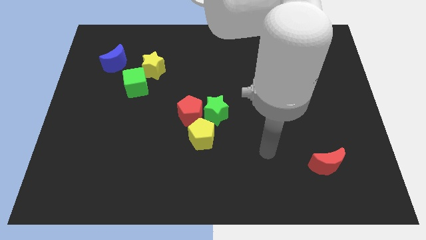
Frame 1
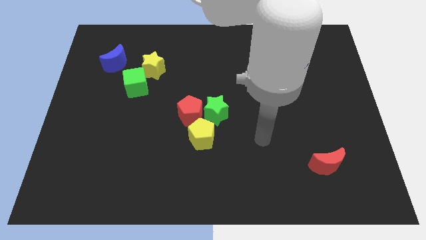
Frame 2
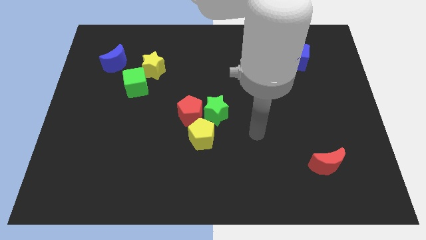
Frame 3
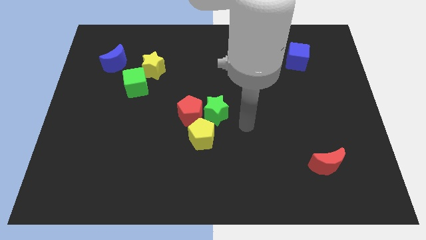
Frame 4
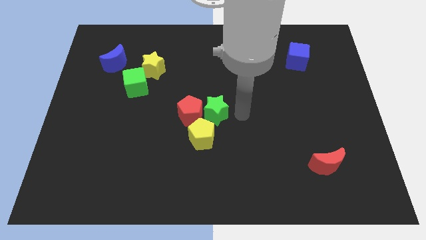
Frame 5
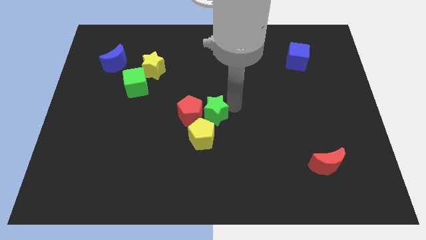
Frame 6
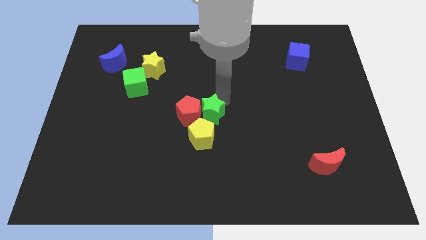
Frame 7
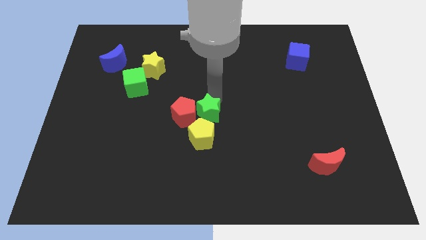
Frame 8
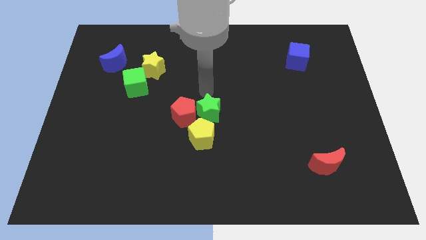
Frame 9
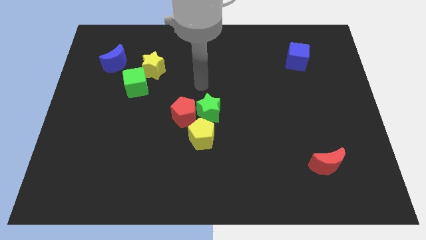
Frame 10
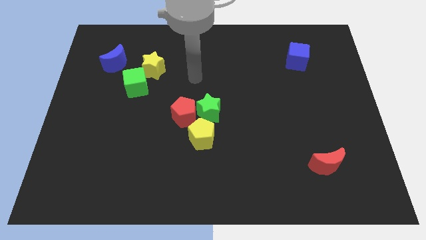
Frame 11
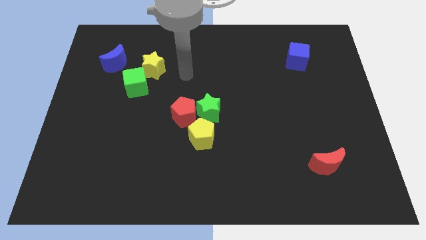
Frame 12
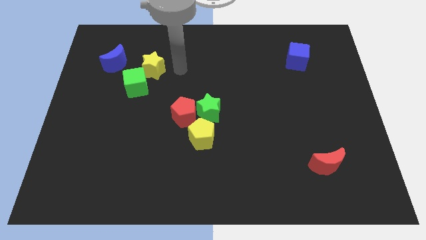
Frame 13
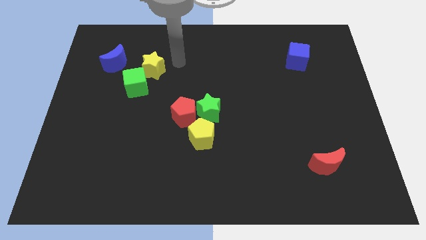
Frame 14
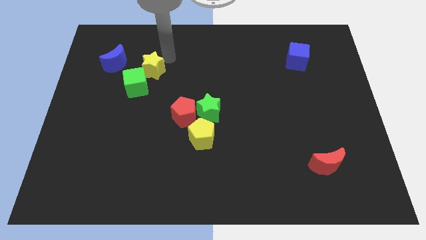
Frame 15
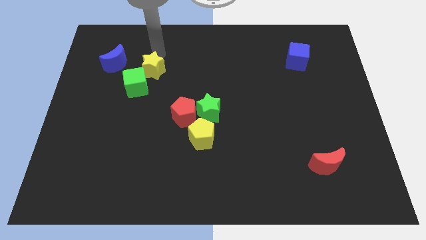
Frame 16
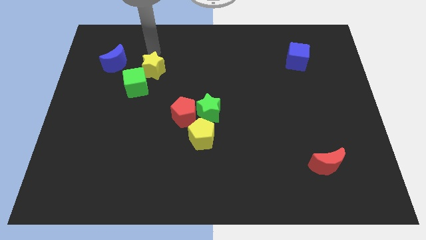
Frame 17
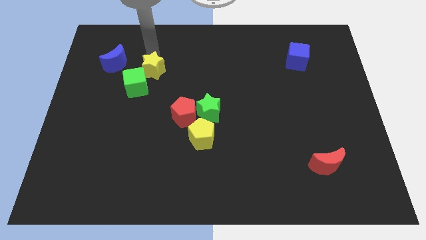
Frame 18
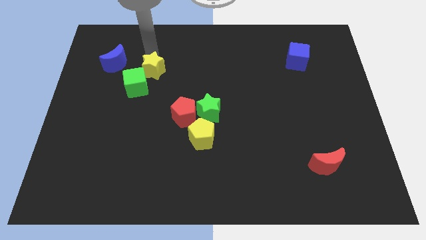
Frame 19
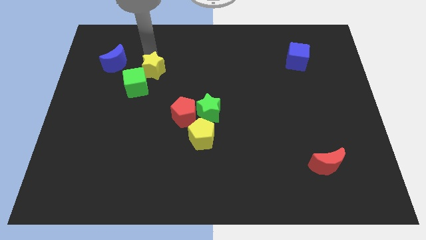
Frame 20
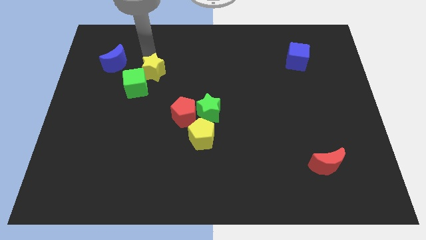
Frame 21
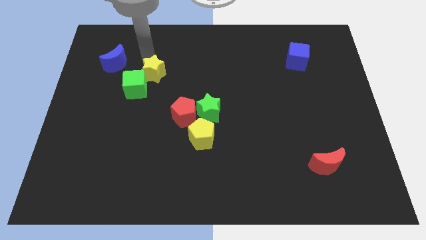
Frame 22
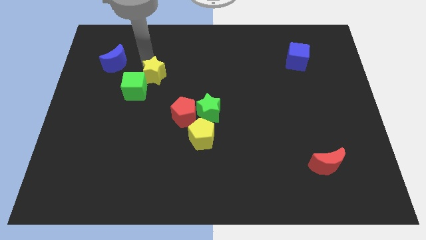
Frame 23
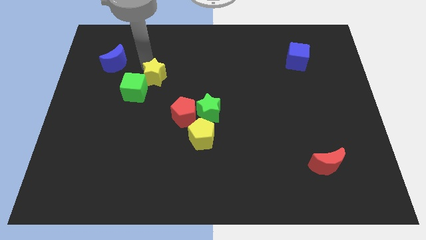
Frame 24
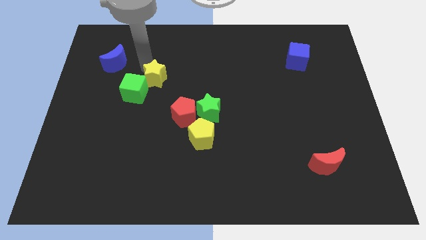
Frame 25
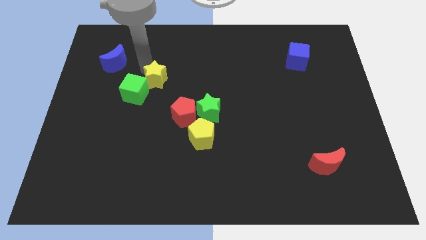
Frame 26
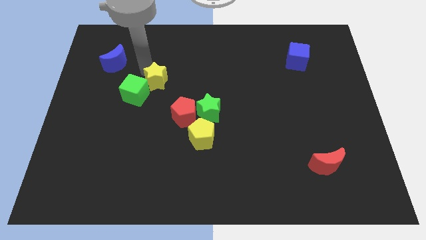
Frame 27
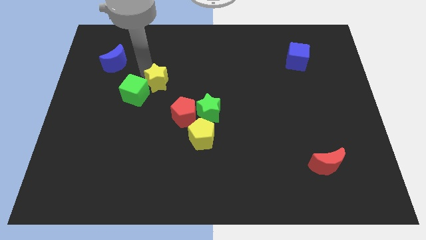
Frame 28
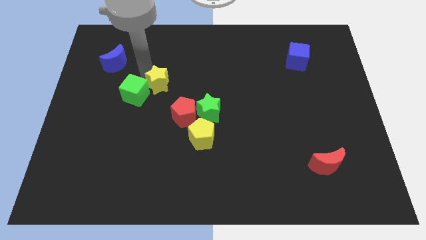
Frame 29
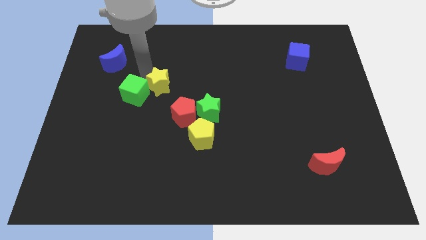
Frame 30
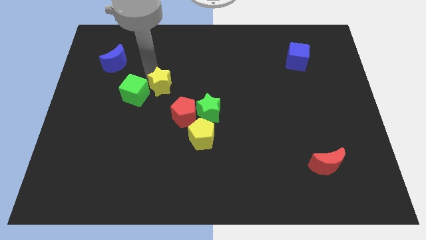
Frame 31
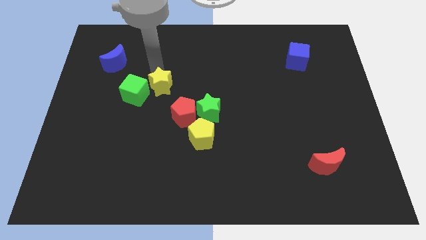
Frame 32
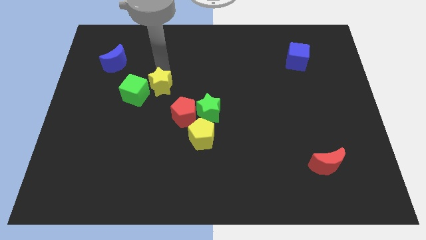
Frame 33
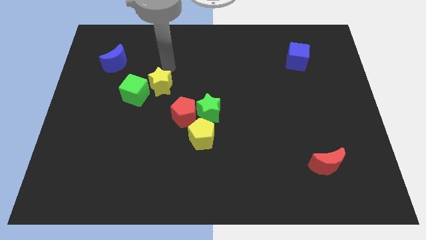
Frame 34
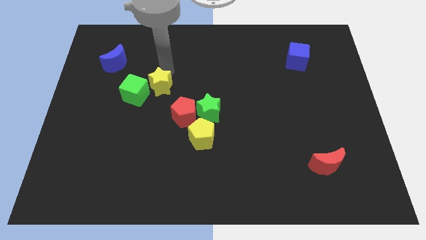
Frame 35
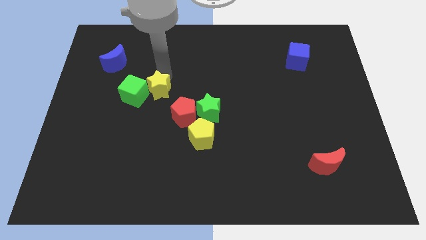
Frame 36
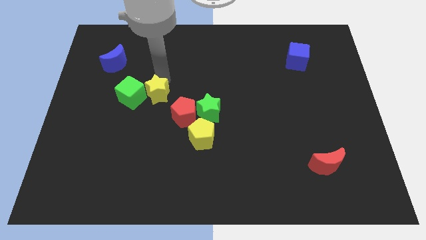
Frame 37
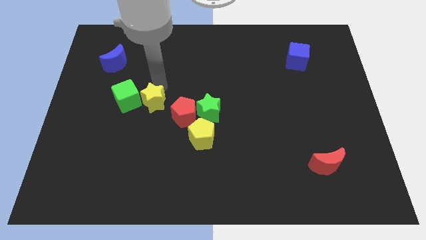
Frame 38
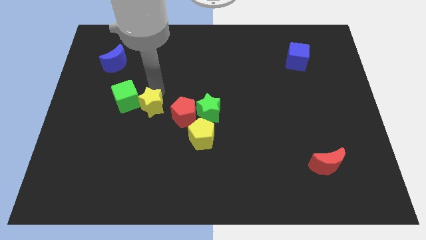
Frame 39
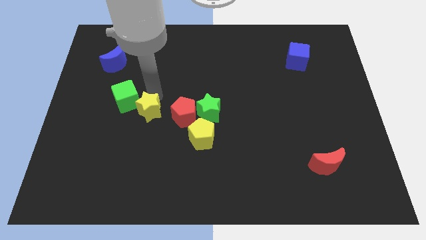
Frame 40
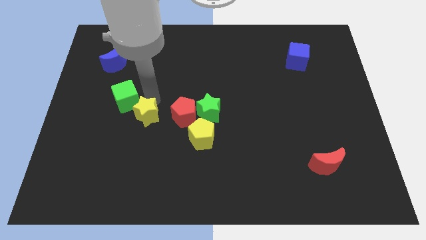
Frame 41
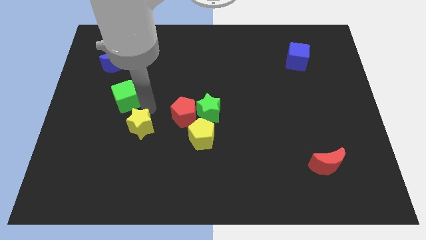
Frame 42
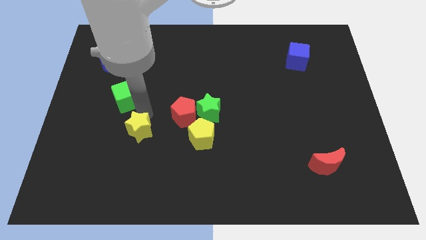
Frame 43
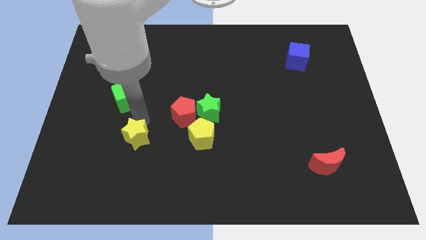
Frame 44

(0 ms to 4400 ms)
slide the yellow star down

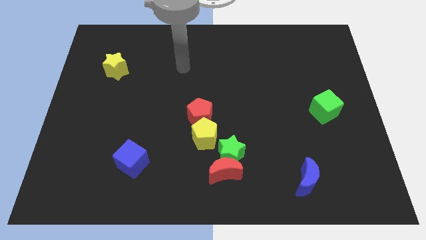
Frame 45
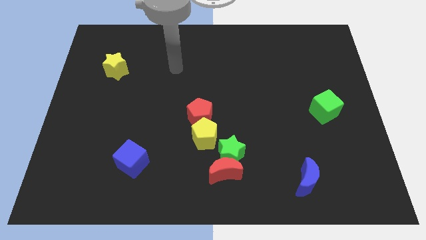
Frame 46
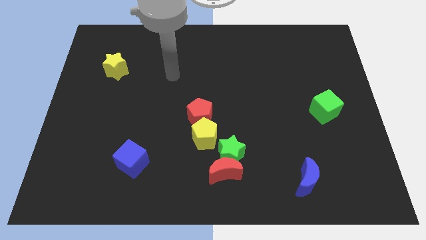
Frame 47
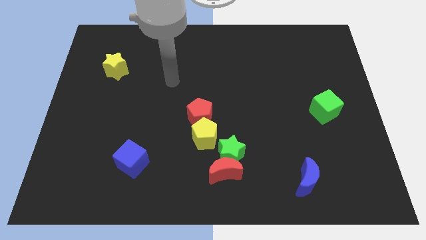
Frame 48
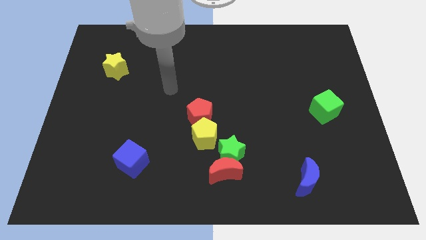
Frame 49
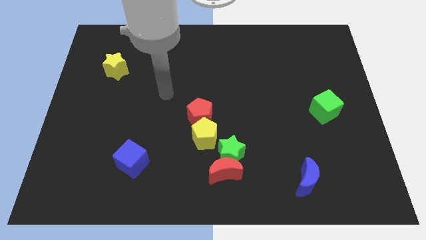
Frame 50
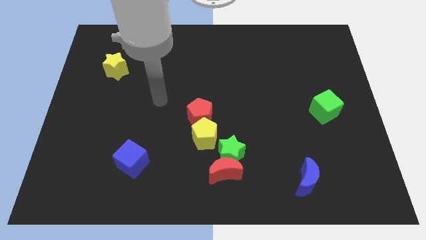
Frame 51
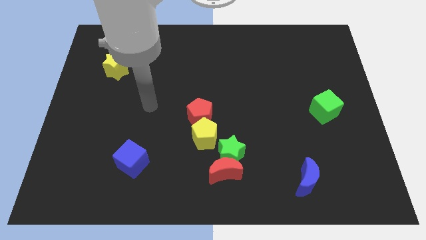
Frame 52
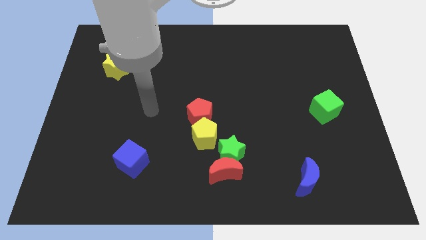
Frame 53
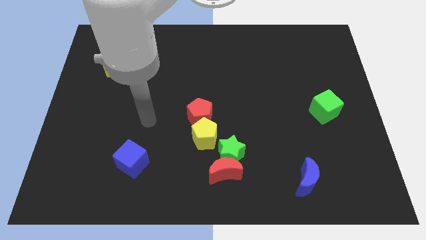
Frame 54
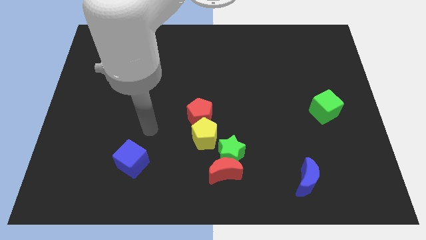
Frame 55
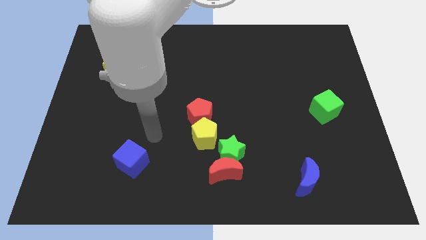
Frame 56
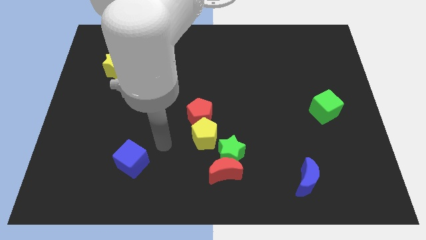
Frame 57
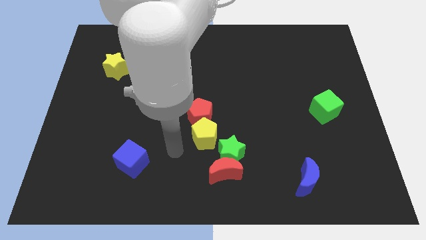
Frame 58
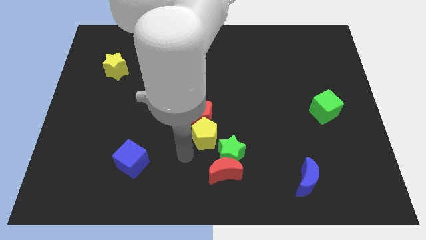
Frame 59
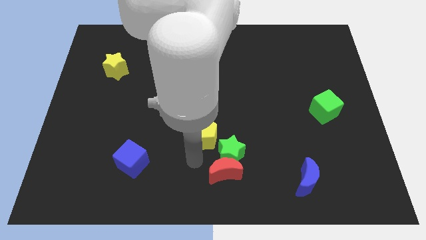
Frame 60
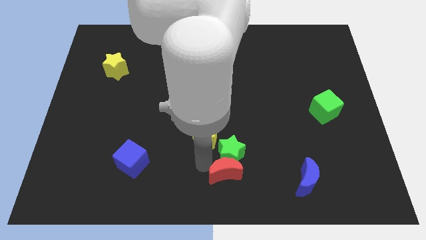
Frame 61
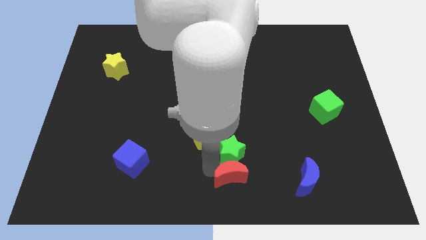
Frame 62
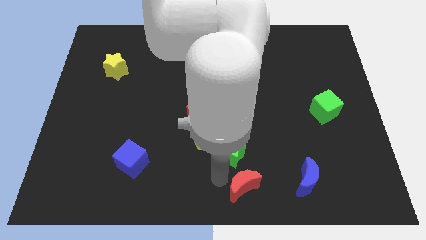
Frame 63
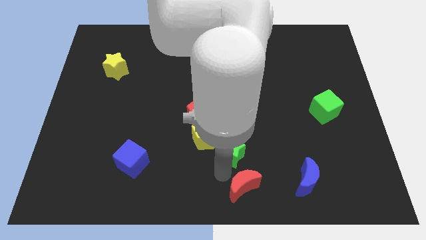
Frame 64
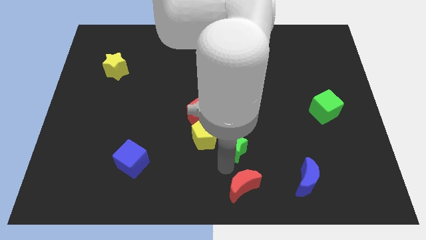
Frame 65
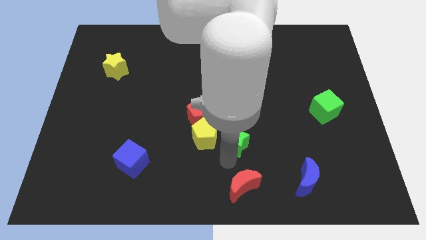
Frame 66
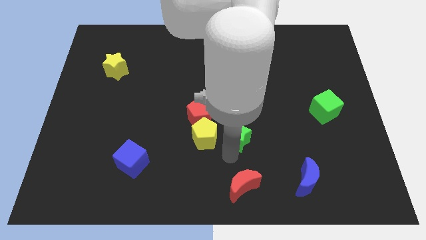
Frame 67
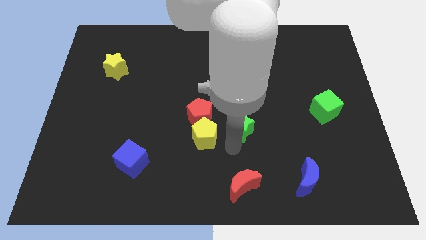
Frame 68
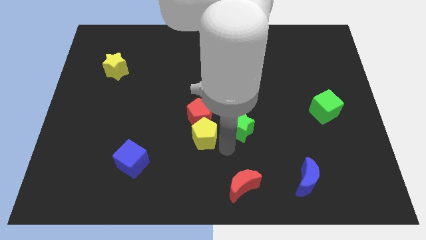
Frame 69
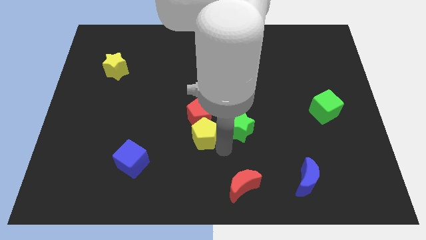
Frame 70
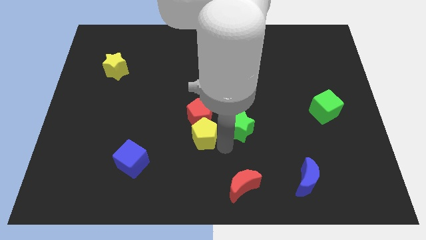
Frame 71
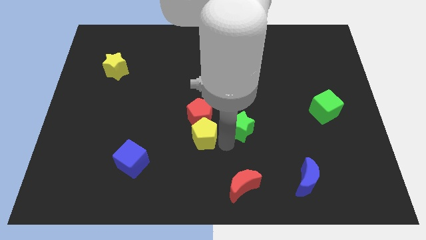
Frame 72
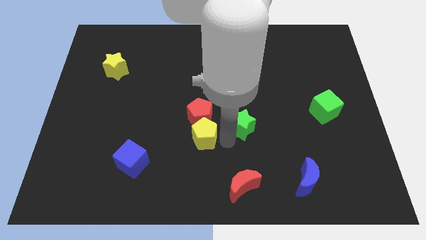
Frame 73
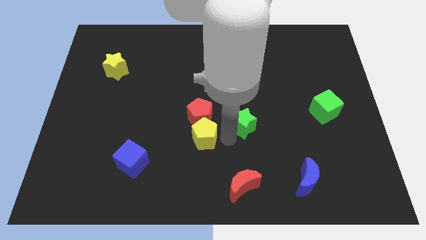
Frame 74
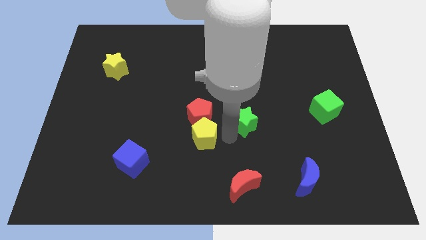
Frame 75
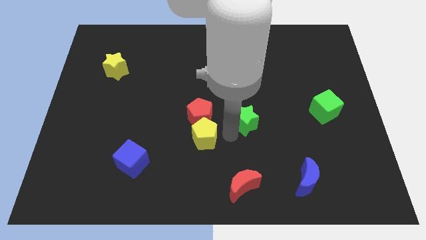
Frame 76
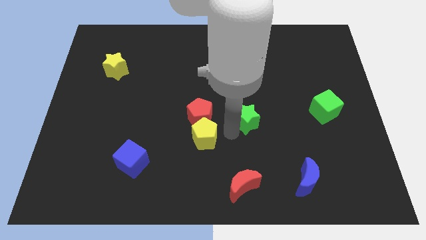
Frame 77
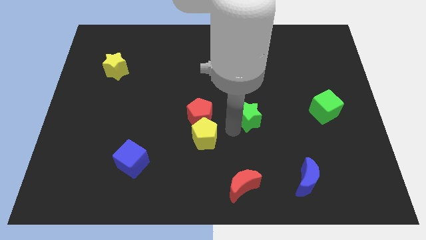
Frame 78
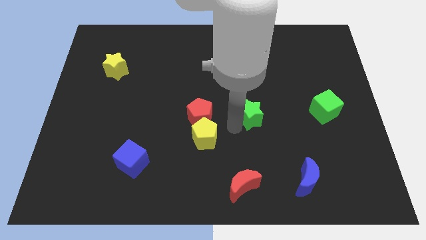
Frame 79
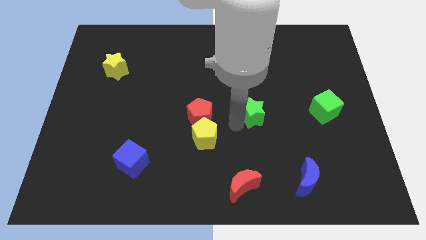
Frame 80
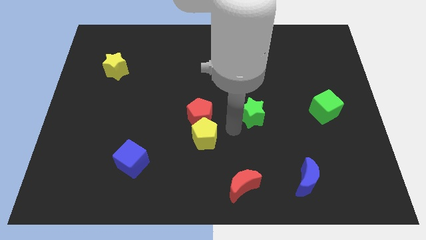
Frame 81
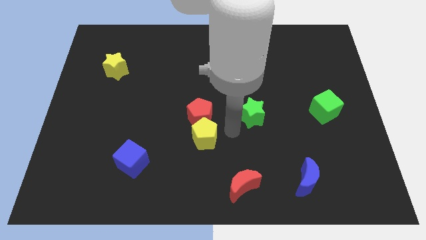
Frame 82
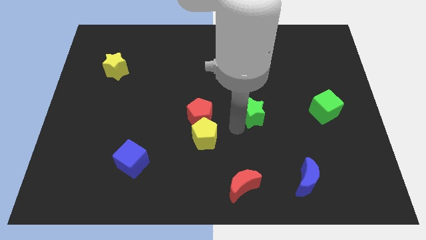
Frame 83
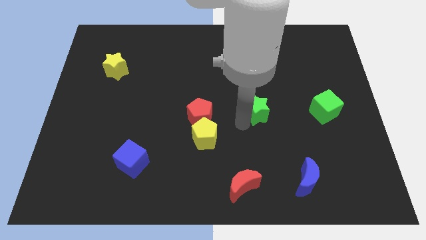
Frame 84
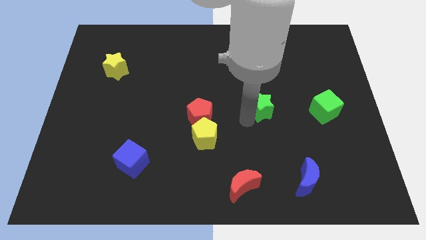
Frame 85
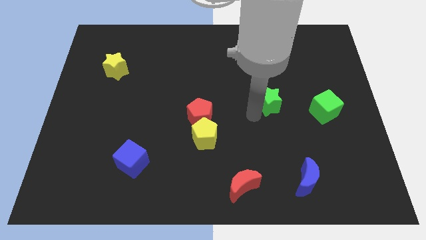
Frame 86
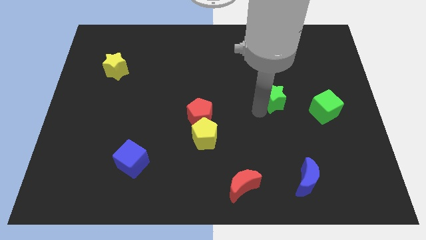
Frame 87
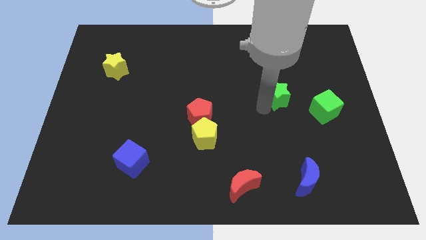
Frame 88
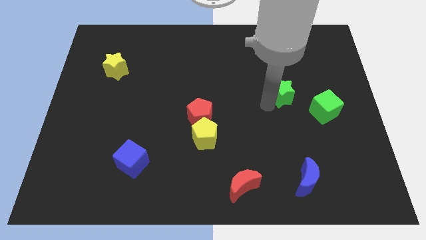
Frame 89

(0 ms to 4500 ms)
move the green star upwards and to the right
